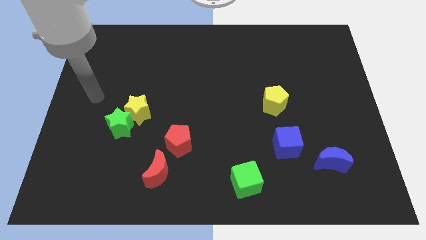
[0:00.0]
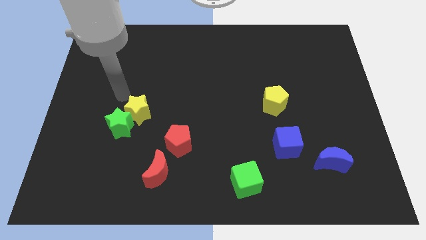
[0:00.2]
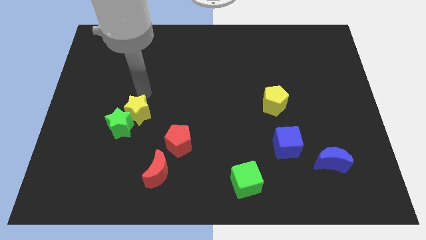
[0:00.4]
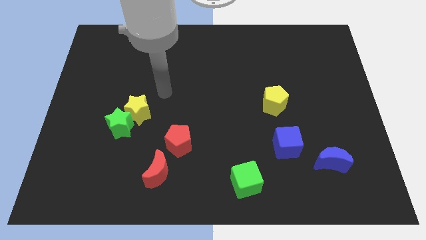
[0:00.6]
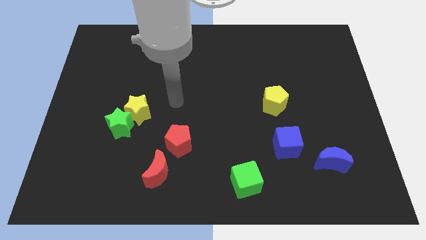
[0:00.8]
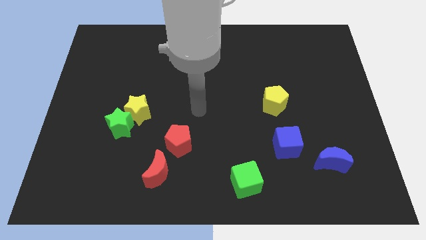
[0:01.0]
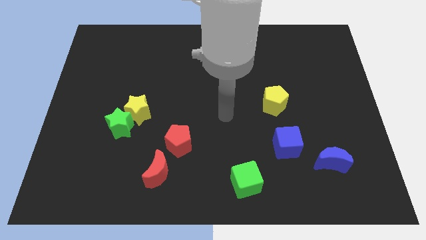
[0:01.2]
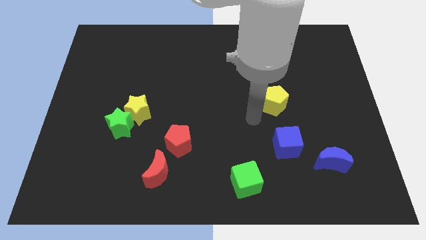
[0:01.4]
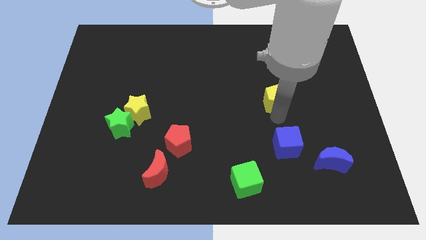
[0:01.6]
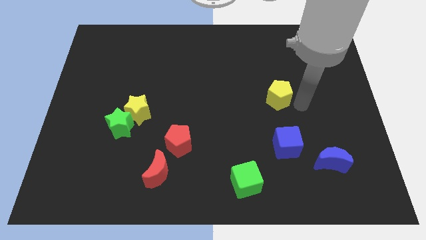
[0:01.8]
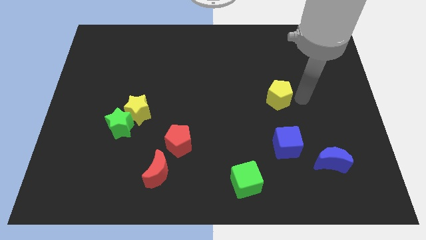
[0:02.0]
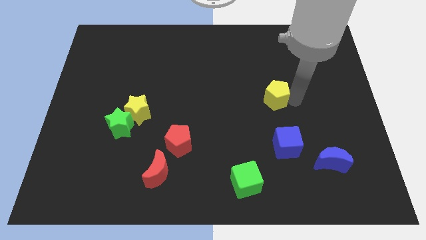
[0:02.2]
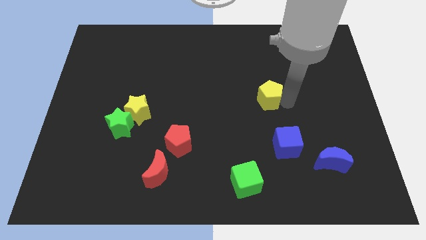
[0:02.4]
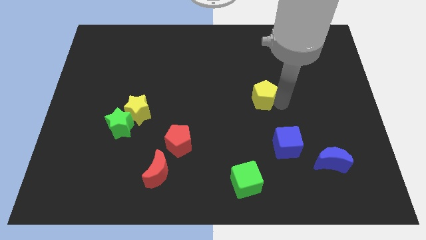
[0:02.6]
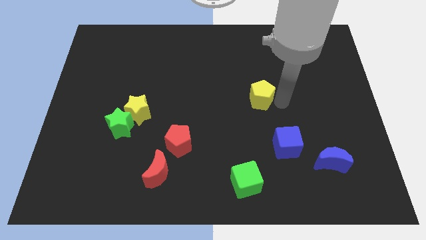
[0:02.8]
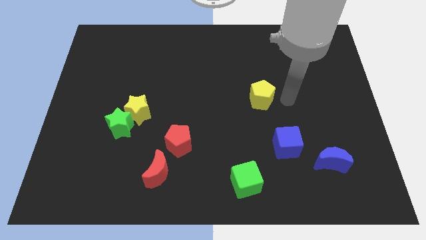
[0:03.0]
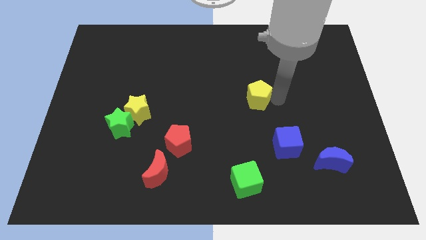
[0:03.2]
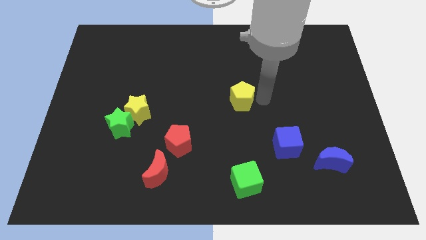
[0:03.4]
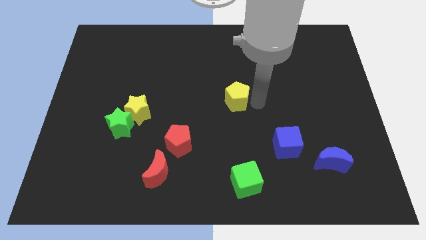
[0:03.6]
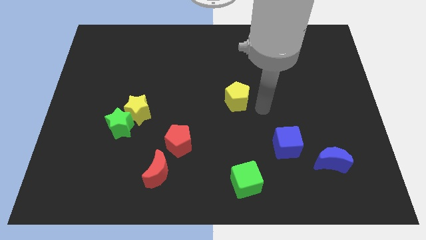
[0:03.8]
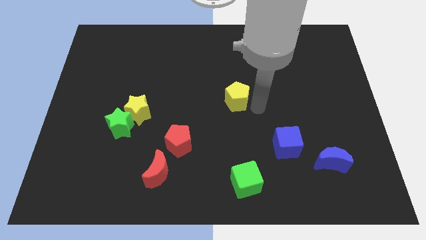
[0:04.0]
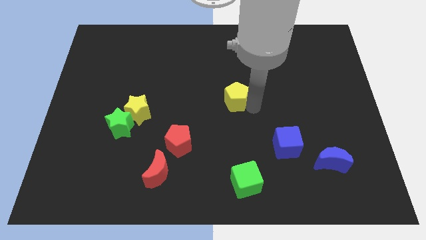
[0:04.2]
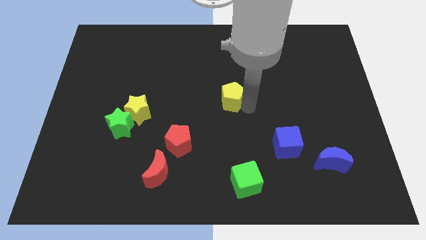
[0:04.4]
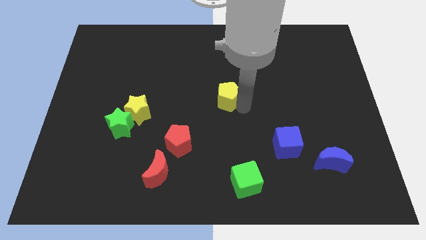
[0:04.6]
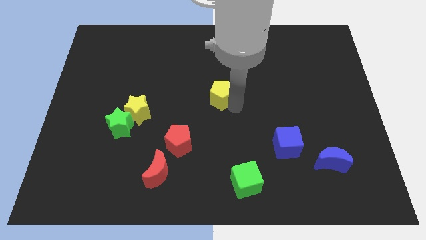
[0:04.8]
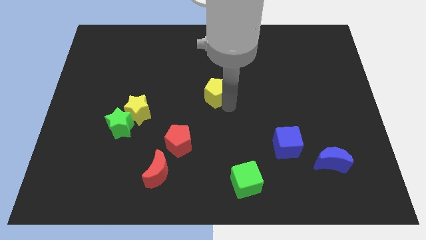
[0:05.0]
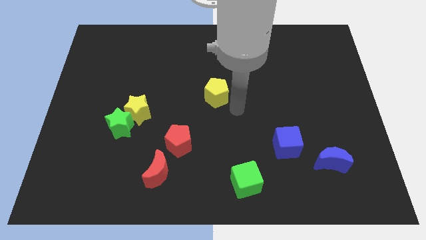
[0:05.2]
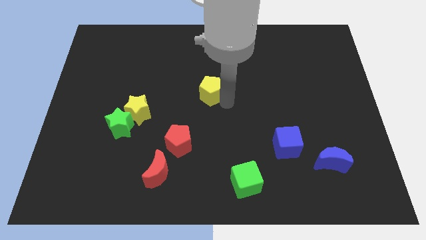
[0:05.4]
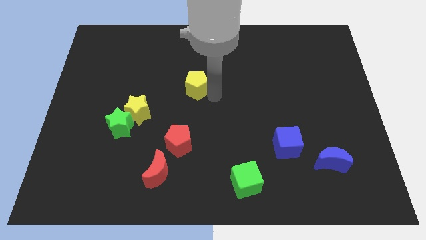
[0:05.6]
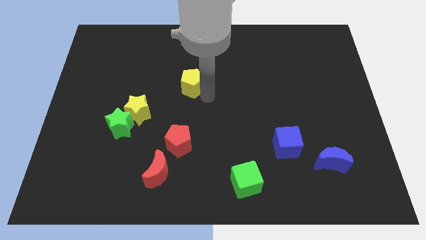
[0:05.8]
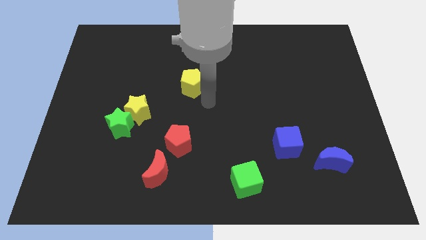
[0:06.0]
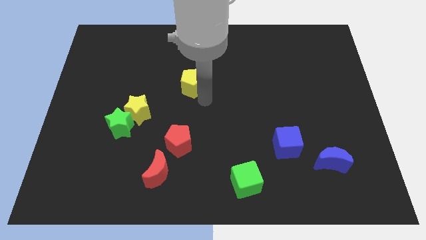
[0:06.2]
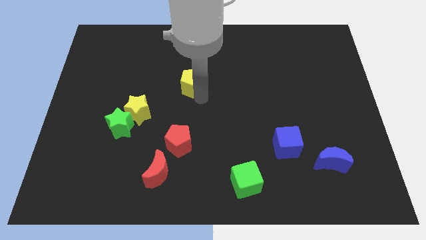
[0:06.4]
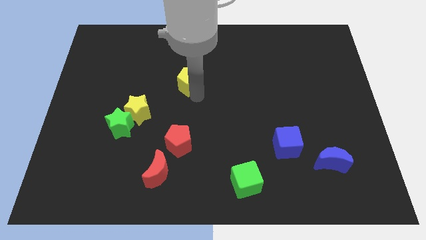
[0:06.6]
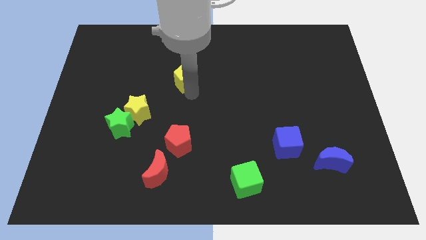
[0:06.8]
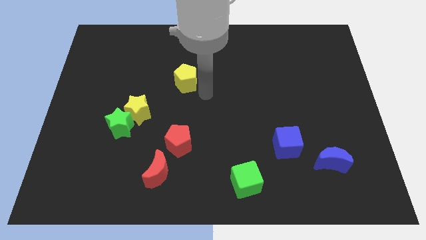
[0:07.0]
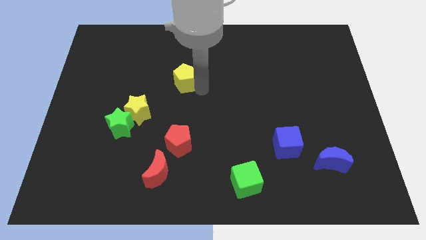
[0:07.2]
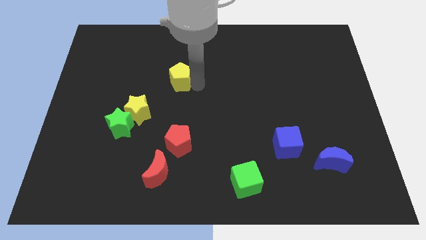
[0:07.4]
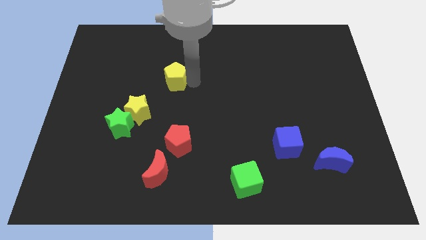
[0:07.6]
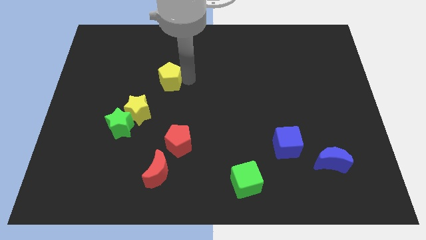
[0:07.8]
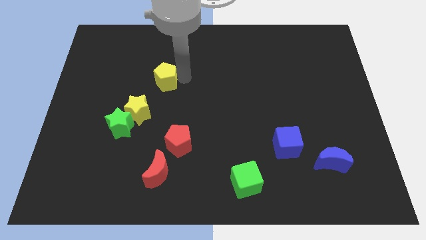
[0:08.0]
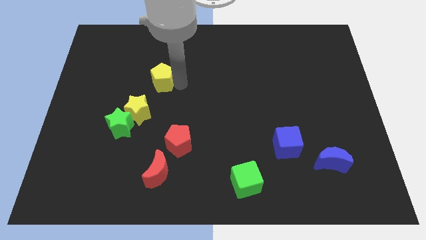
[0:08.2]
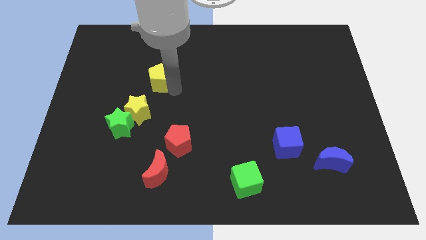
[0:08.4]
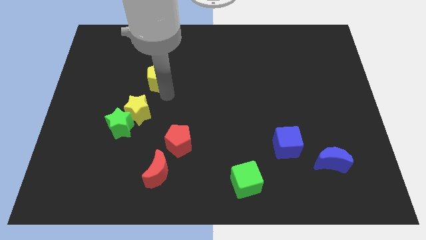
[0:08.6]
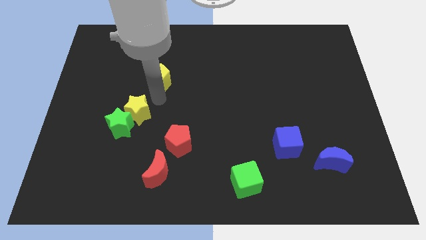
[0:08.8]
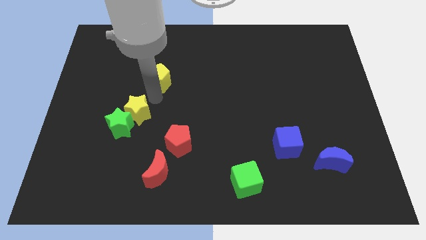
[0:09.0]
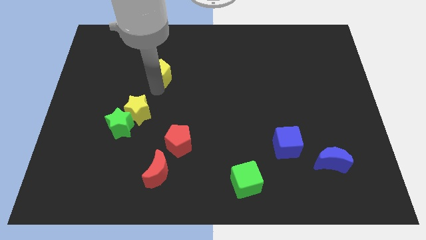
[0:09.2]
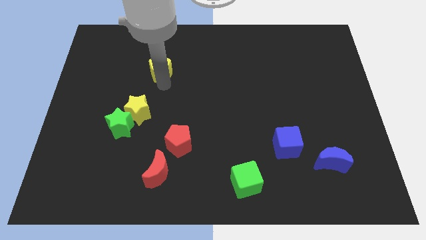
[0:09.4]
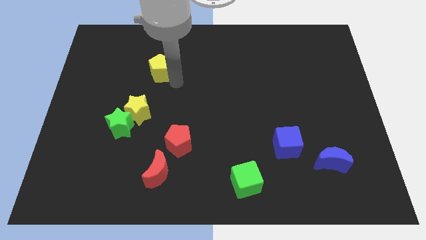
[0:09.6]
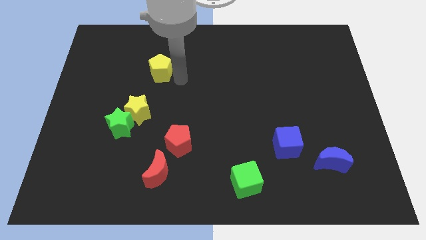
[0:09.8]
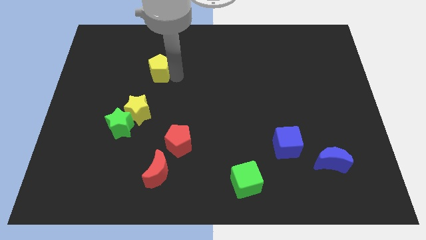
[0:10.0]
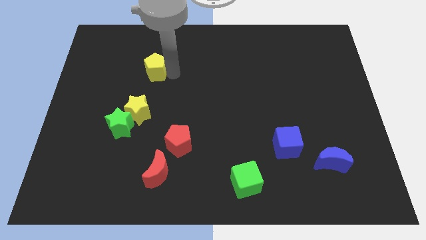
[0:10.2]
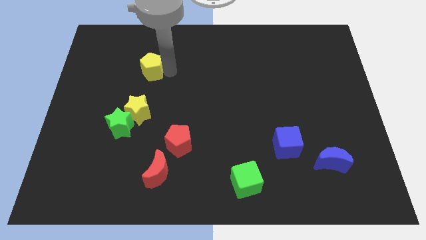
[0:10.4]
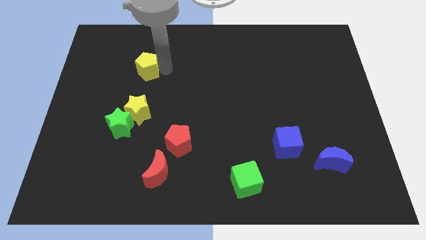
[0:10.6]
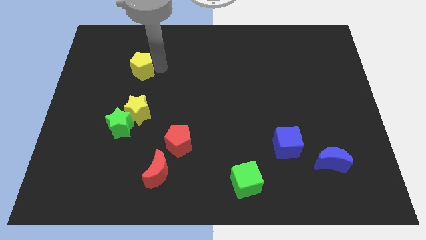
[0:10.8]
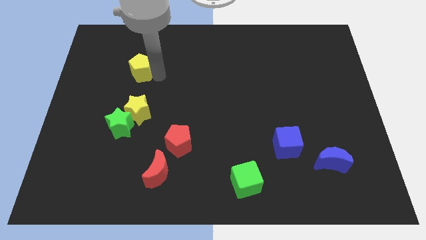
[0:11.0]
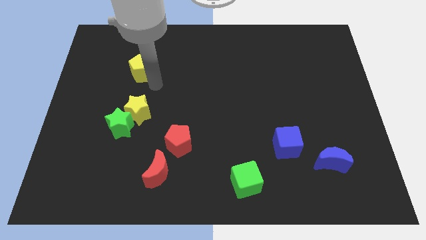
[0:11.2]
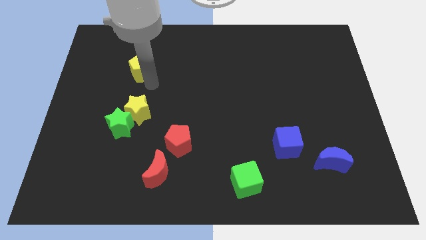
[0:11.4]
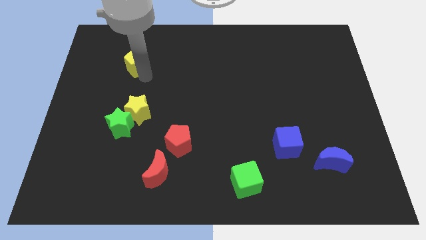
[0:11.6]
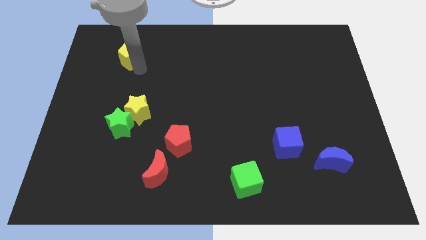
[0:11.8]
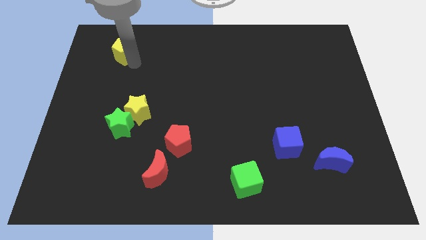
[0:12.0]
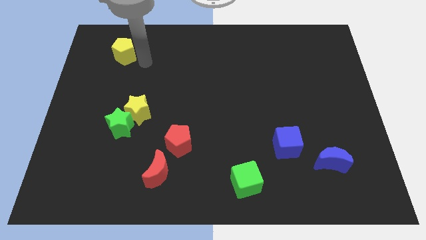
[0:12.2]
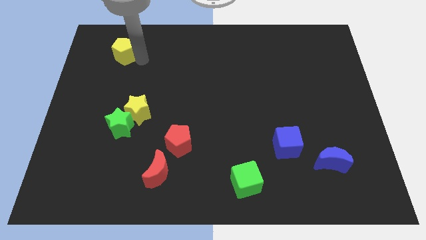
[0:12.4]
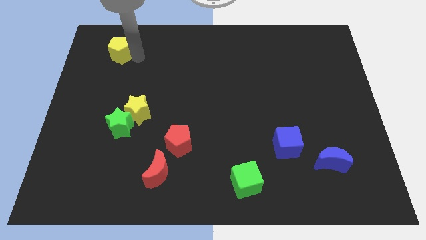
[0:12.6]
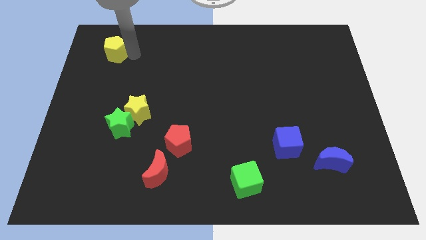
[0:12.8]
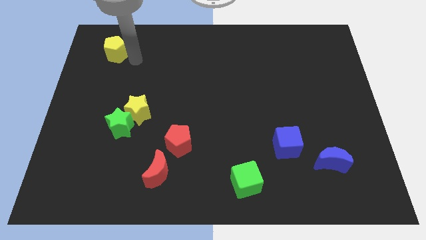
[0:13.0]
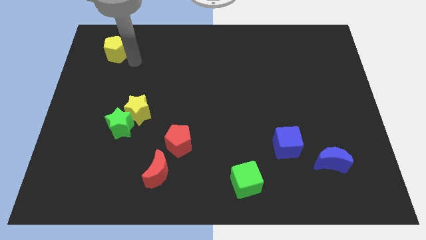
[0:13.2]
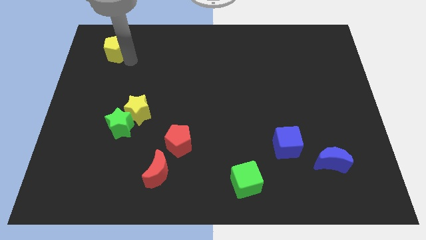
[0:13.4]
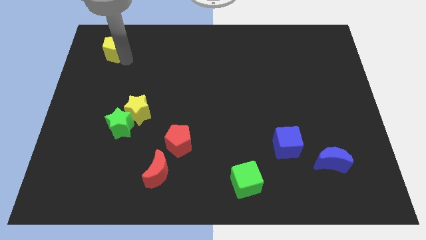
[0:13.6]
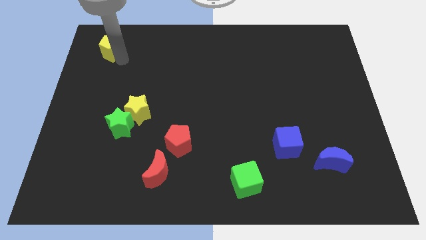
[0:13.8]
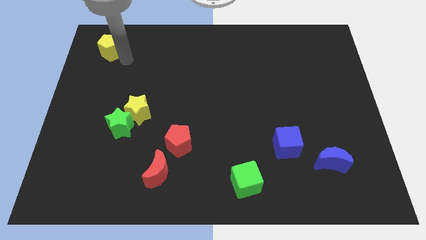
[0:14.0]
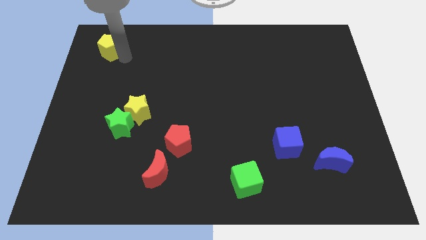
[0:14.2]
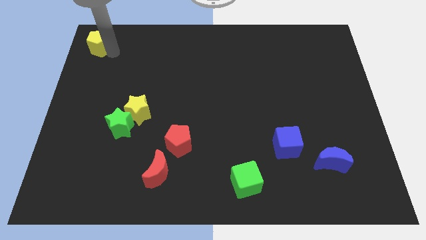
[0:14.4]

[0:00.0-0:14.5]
slide the yellow pentagon to the upper left corner
